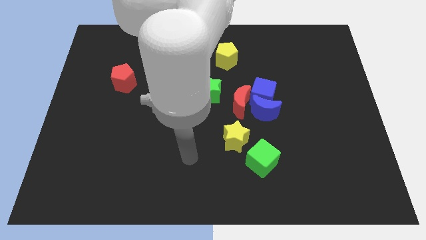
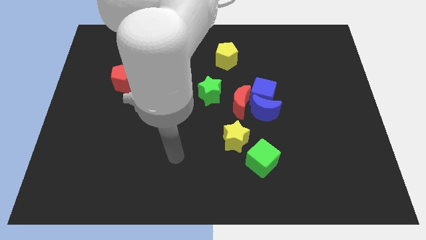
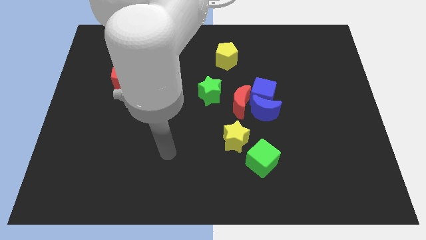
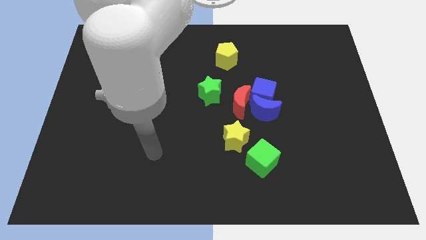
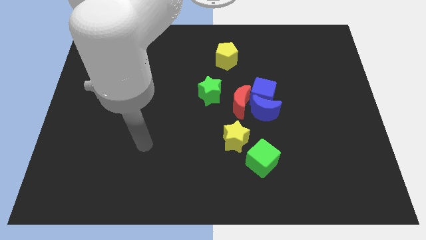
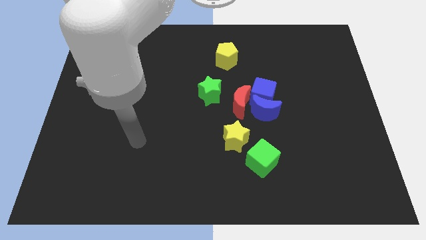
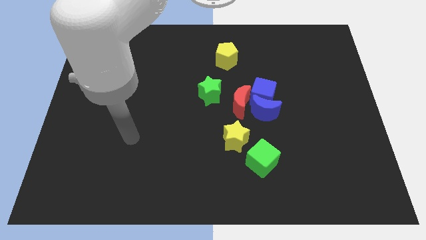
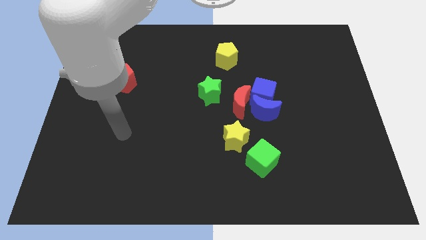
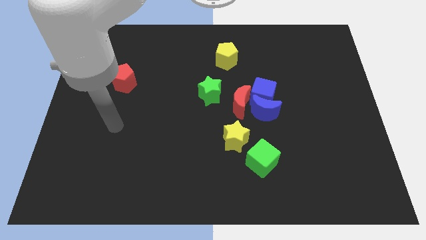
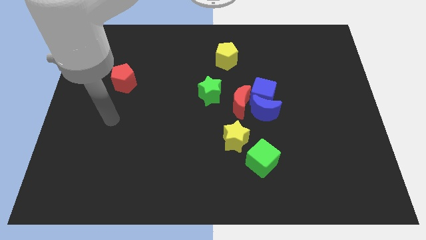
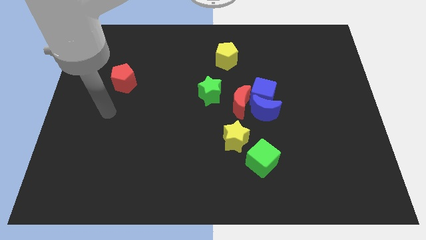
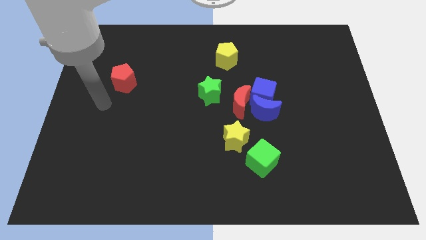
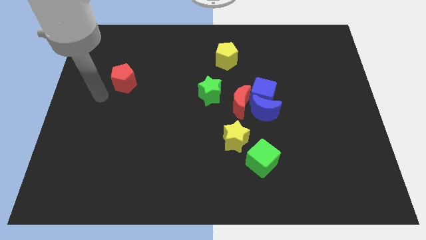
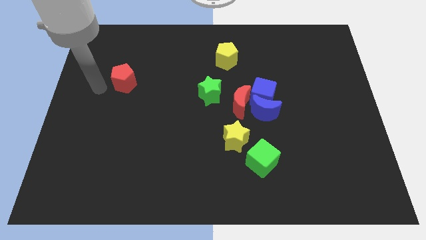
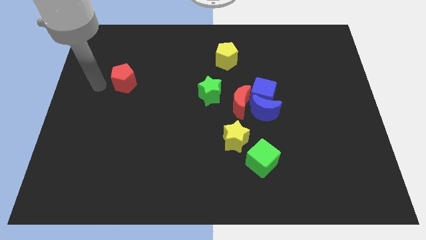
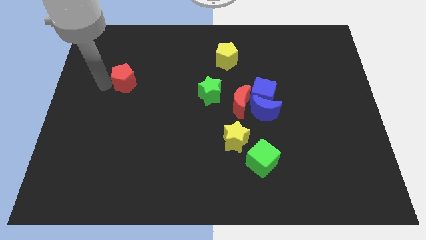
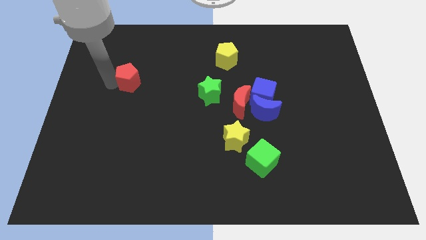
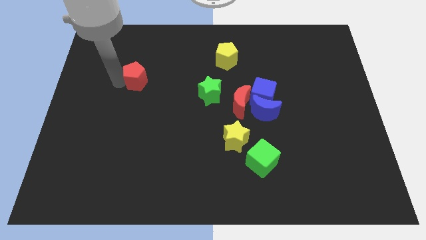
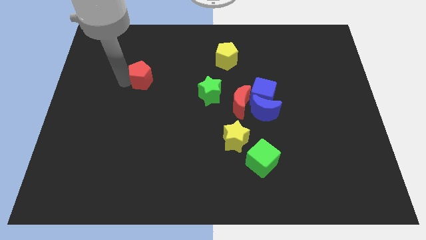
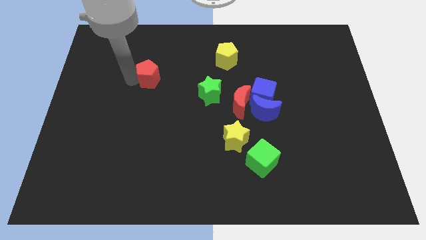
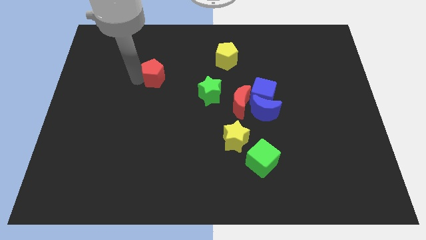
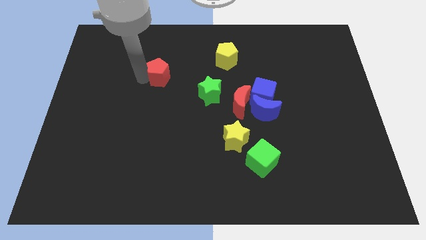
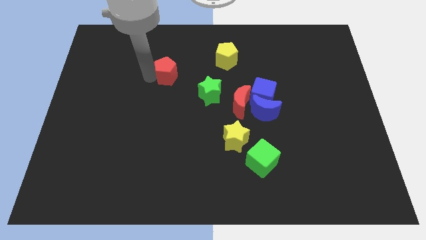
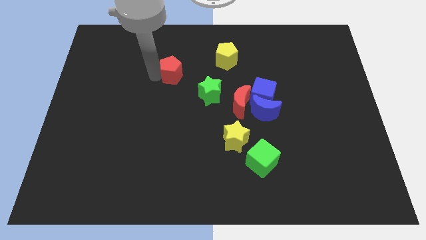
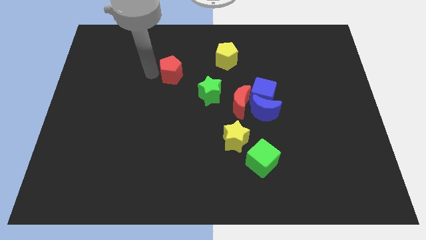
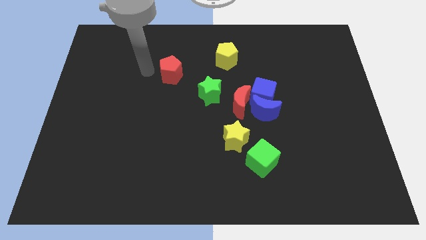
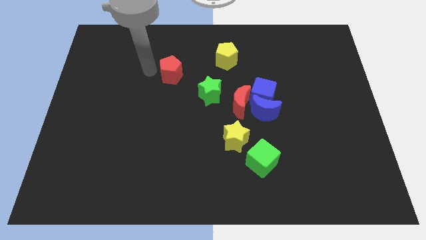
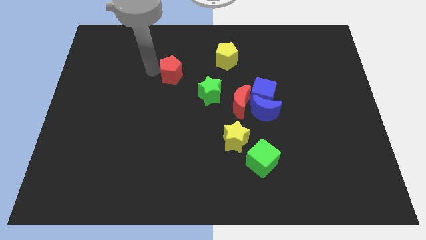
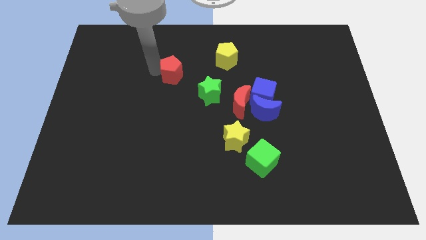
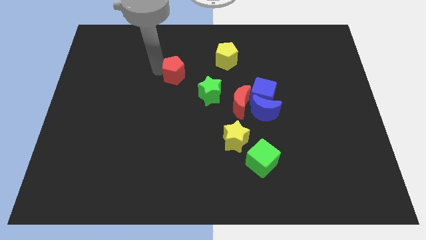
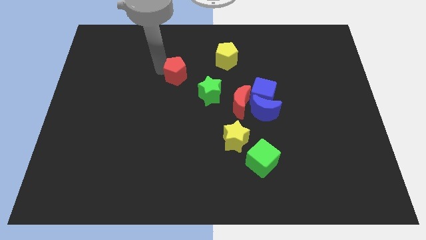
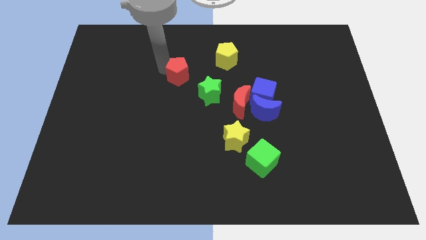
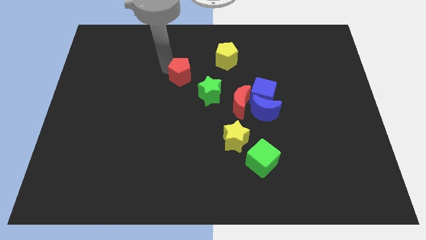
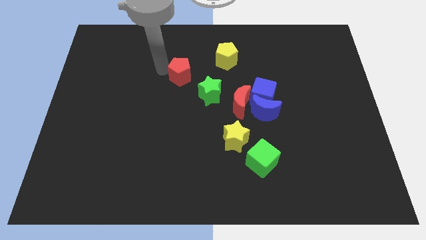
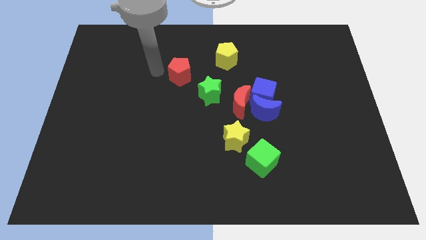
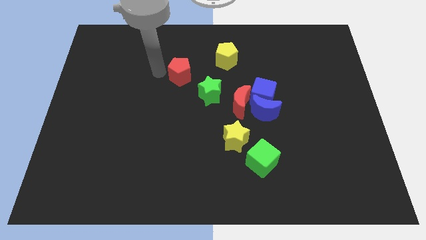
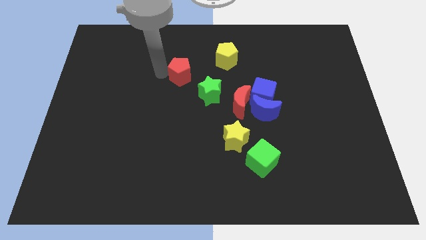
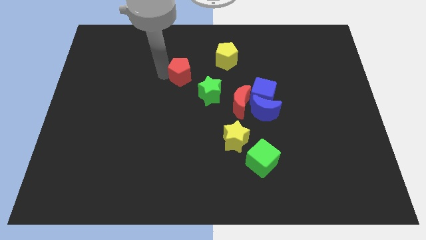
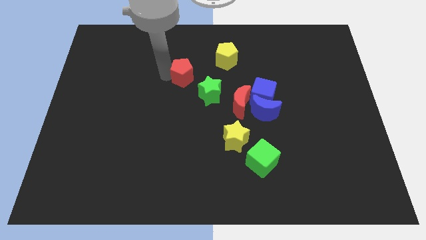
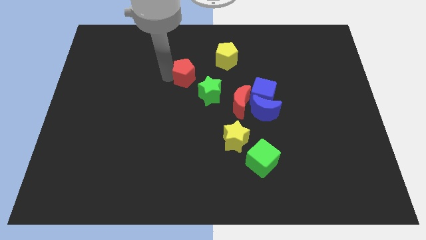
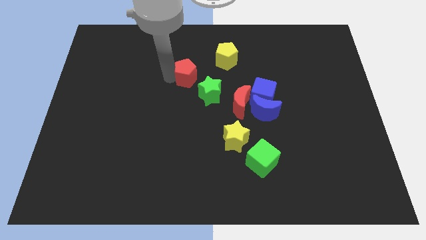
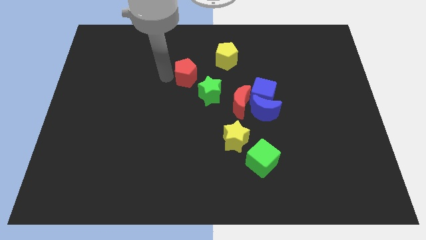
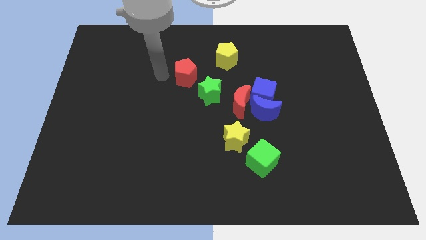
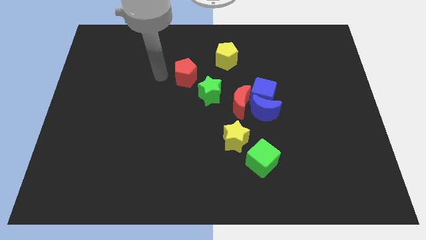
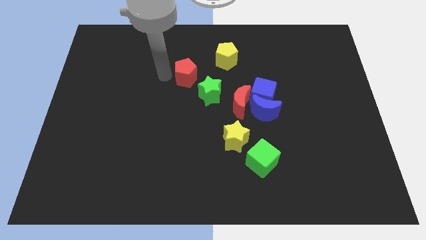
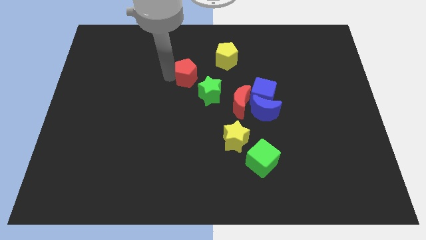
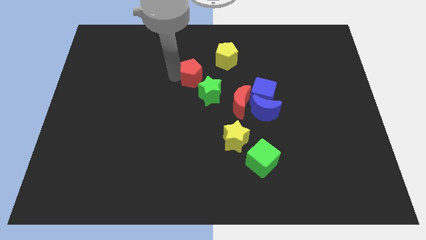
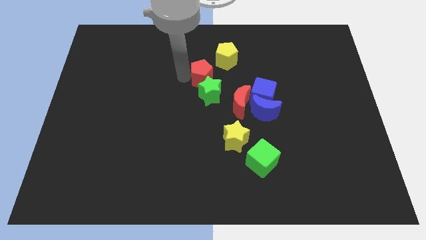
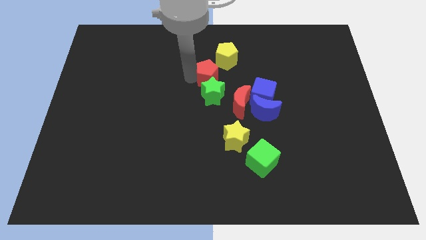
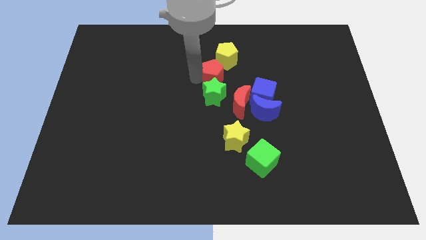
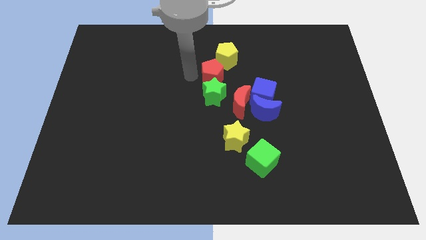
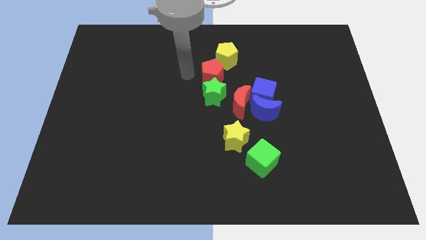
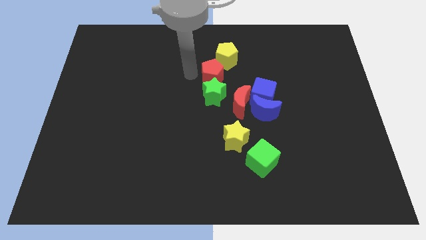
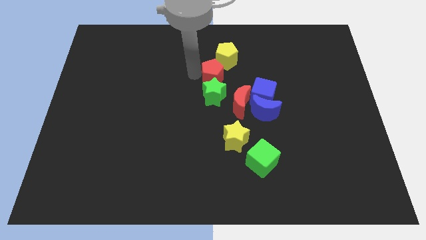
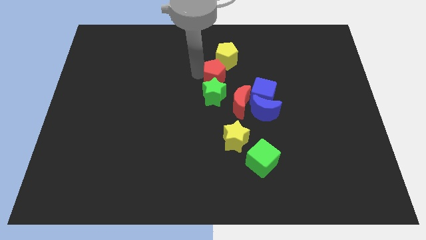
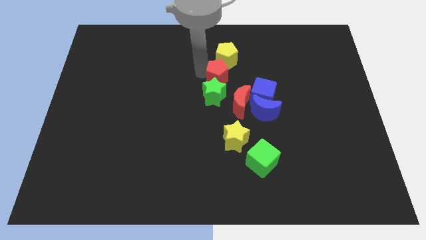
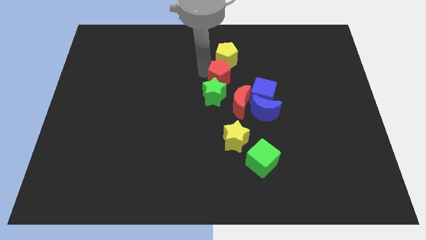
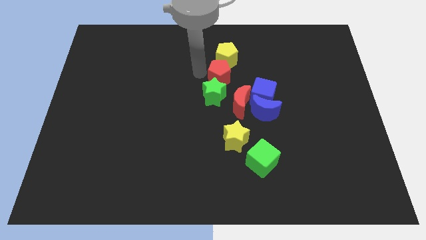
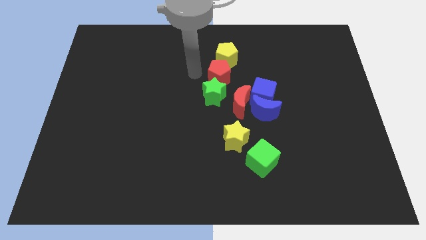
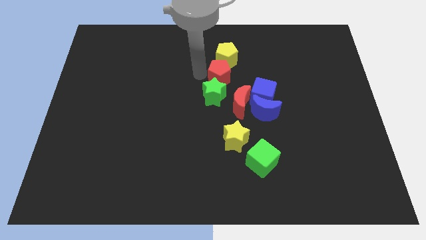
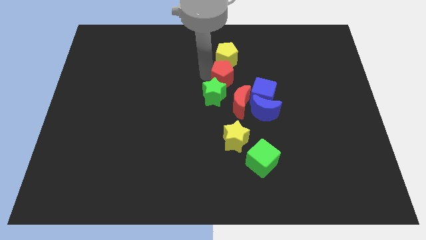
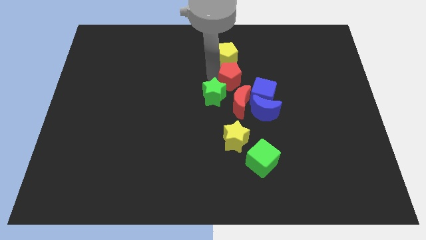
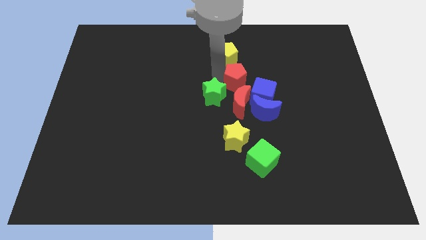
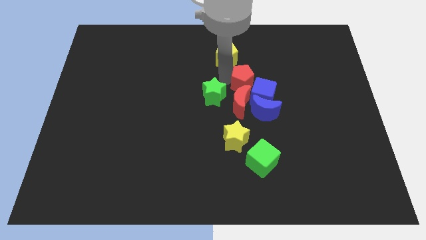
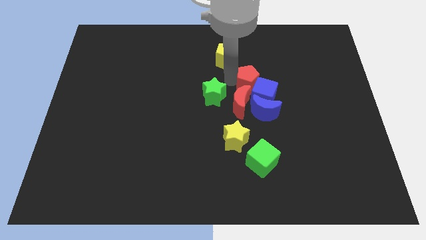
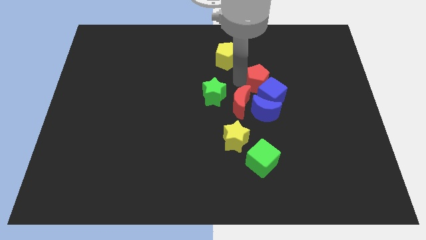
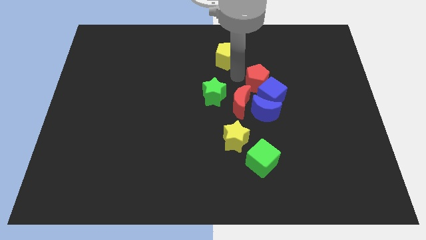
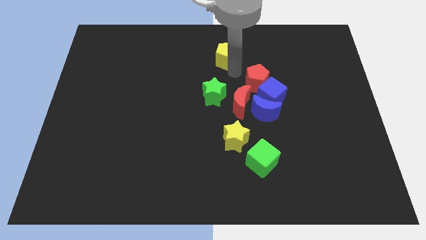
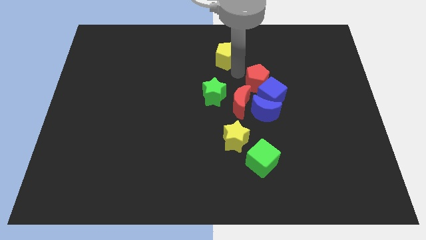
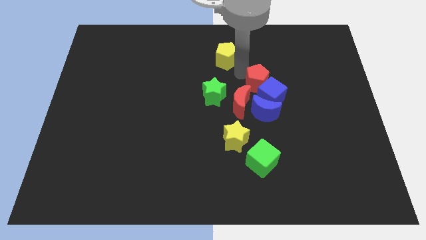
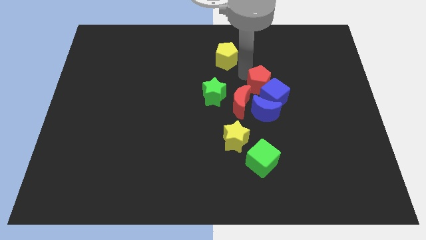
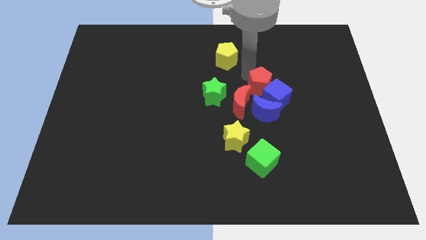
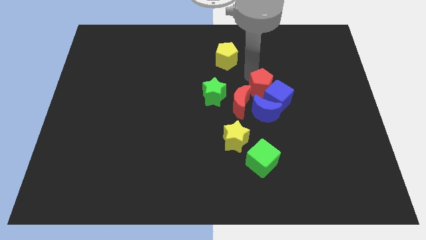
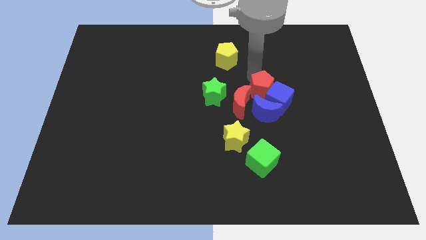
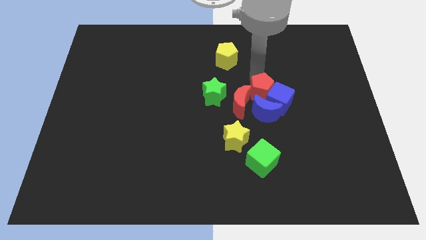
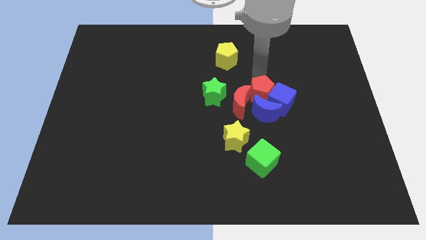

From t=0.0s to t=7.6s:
put the red pentagon to the top right of the blue moon
